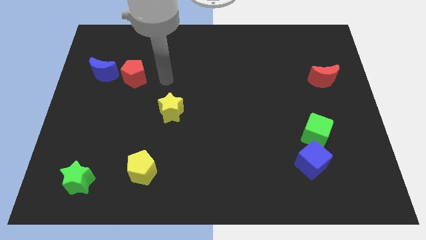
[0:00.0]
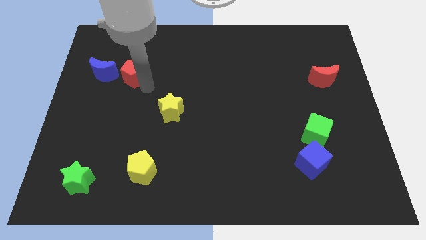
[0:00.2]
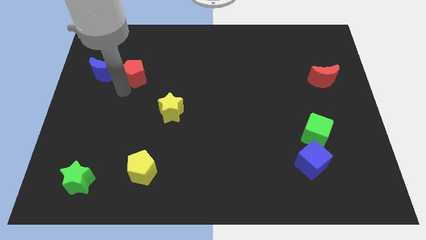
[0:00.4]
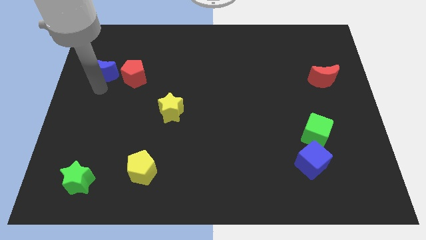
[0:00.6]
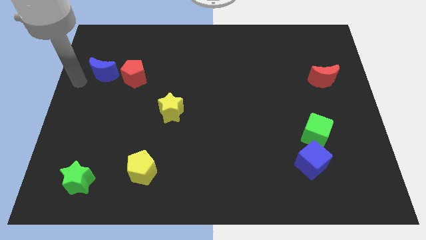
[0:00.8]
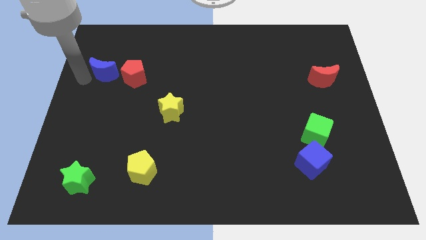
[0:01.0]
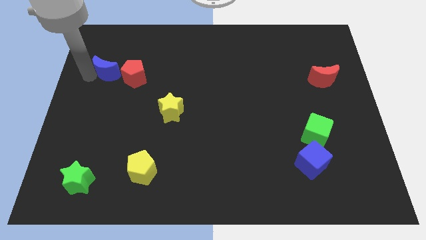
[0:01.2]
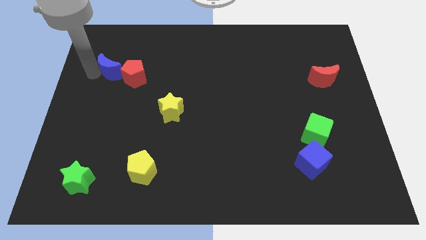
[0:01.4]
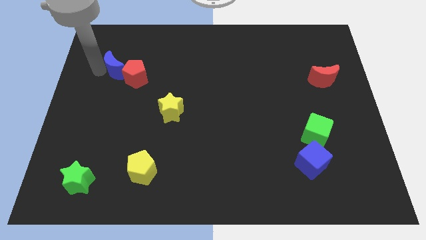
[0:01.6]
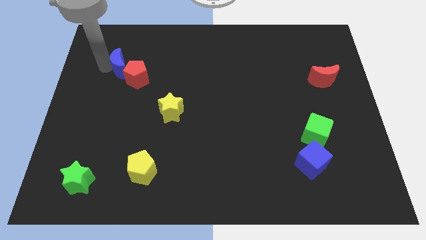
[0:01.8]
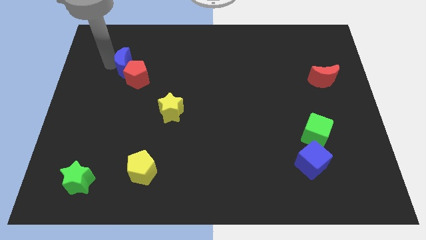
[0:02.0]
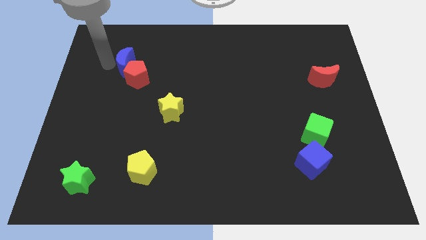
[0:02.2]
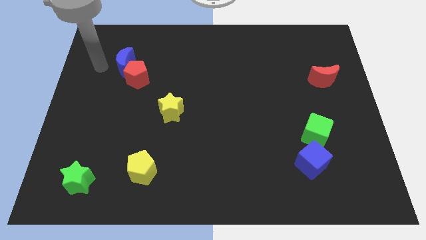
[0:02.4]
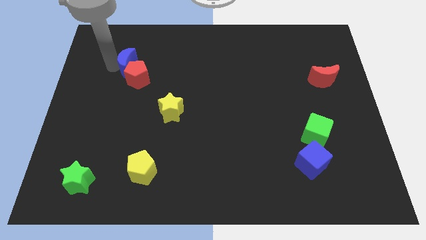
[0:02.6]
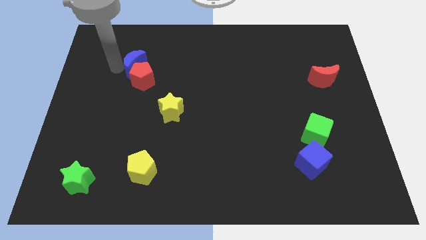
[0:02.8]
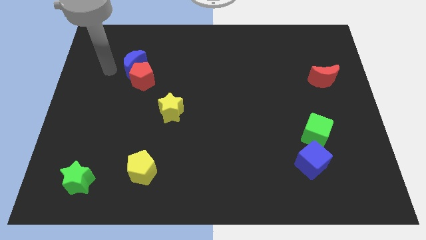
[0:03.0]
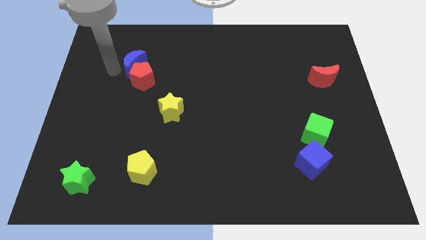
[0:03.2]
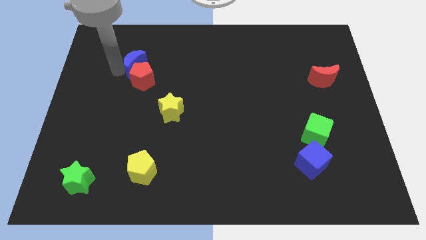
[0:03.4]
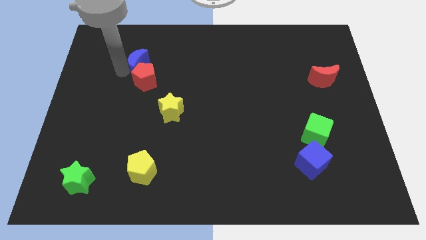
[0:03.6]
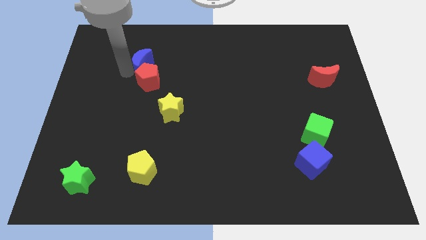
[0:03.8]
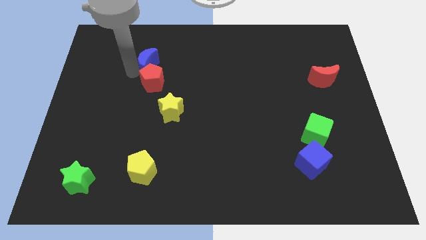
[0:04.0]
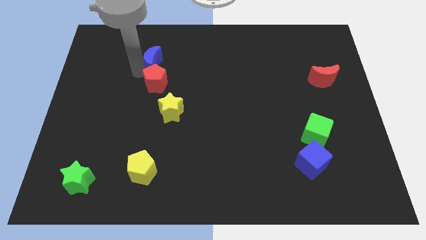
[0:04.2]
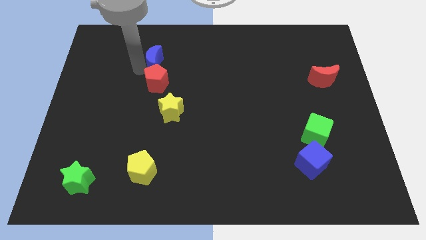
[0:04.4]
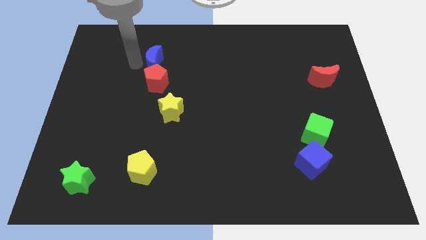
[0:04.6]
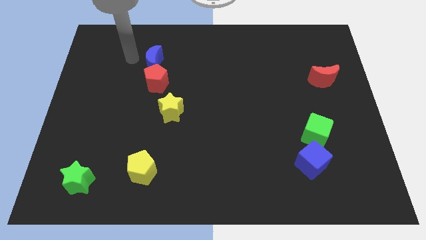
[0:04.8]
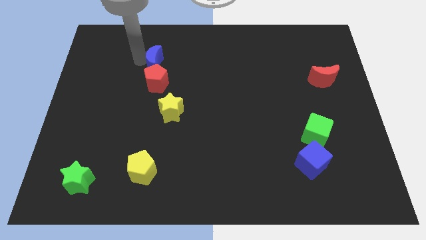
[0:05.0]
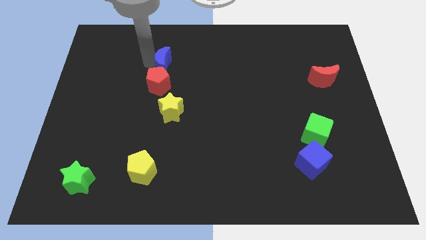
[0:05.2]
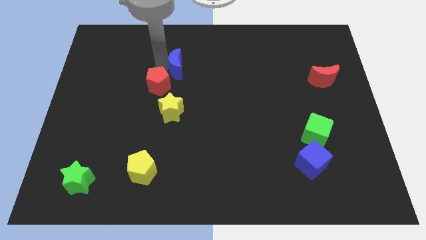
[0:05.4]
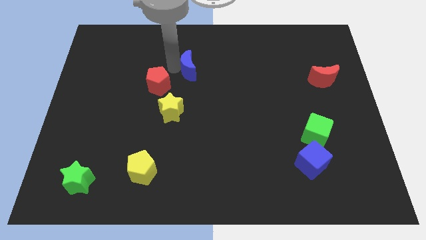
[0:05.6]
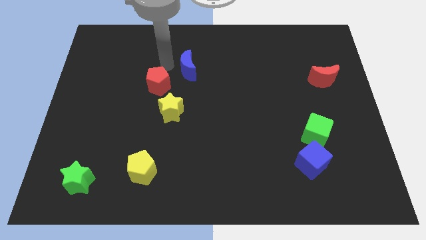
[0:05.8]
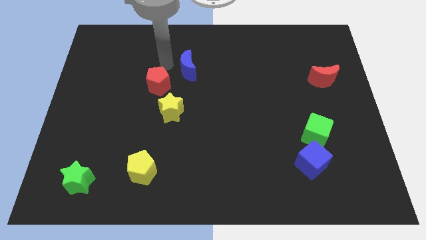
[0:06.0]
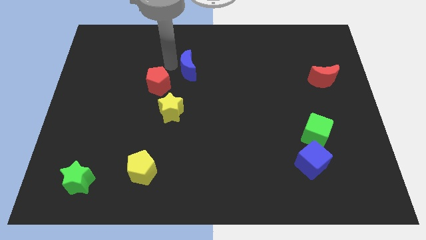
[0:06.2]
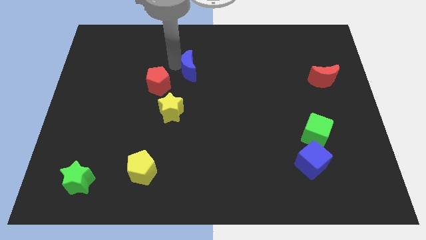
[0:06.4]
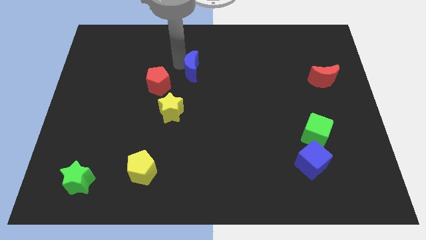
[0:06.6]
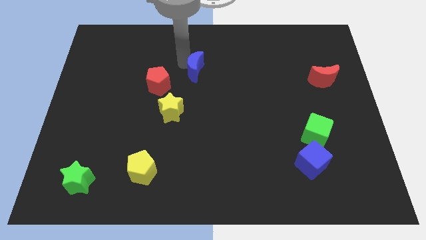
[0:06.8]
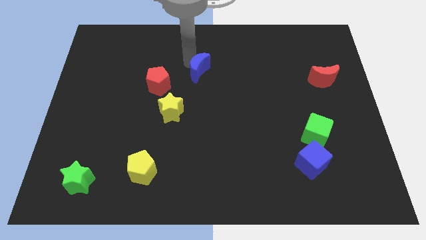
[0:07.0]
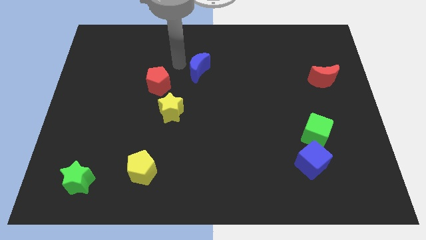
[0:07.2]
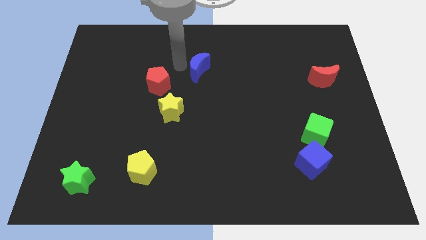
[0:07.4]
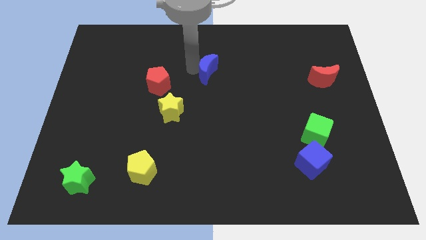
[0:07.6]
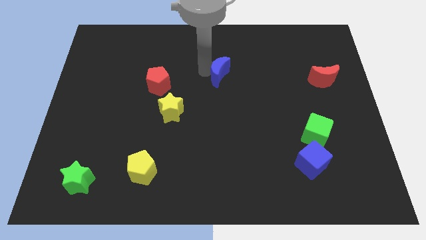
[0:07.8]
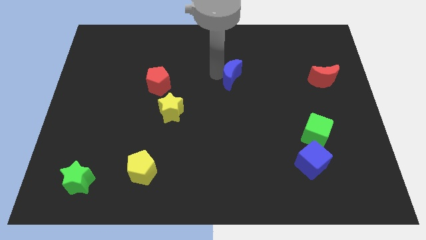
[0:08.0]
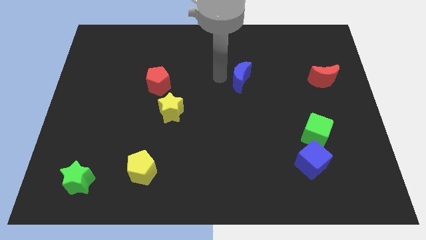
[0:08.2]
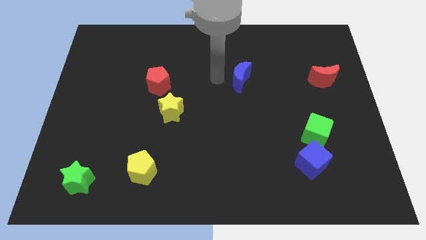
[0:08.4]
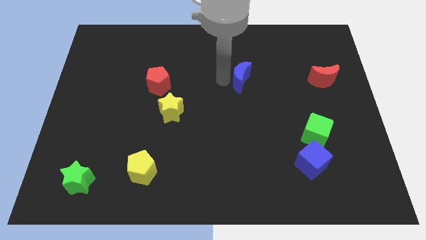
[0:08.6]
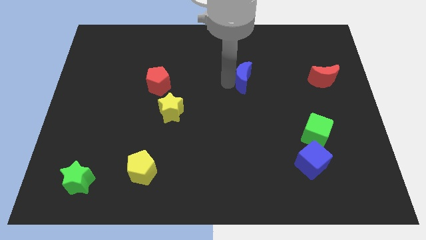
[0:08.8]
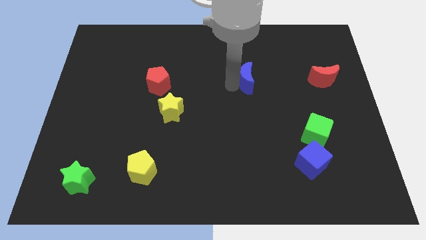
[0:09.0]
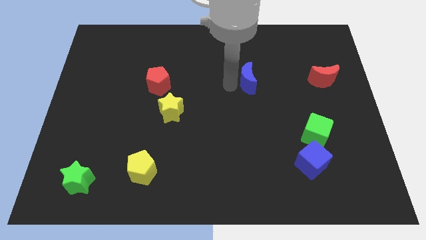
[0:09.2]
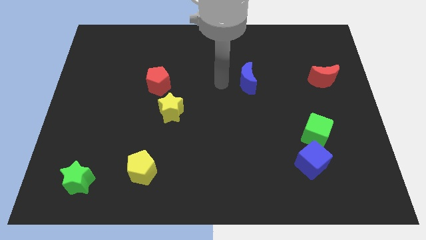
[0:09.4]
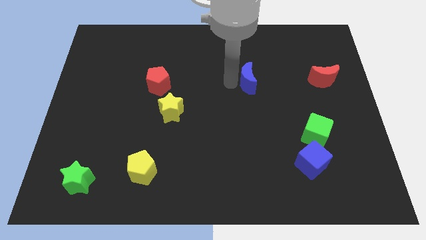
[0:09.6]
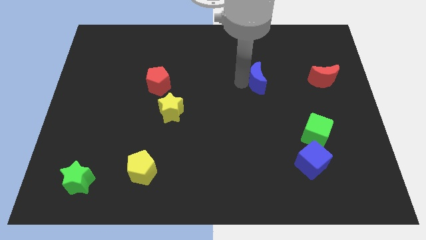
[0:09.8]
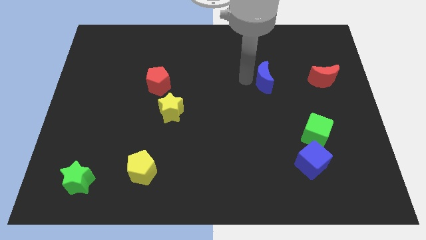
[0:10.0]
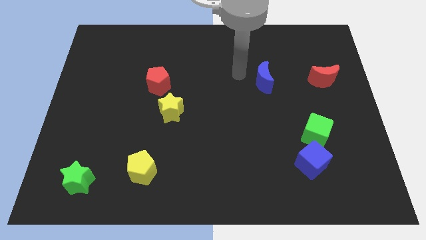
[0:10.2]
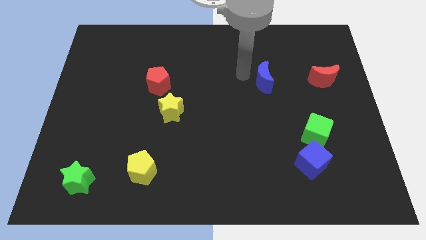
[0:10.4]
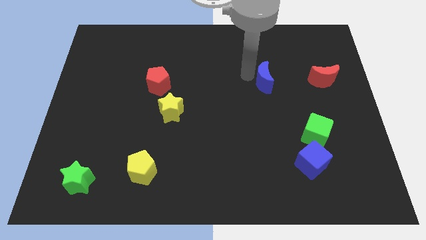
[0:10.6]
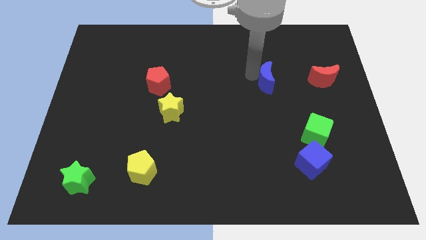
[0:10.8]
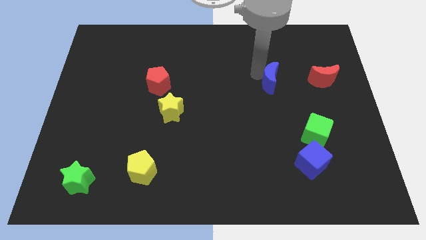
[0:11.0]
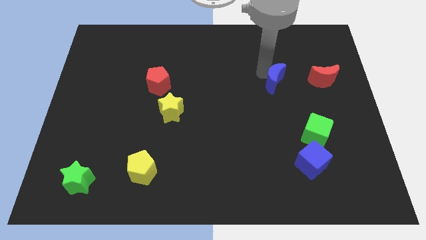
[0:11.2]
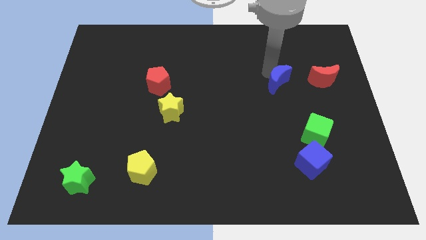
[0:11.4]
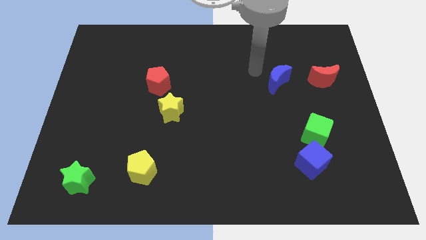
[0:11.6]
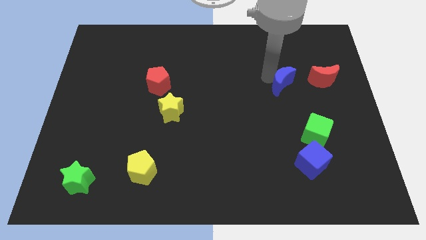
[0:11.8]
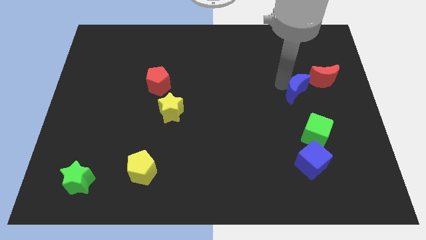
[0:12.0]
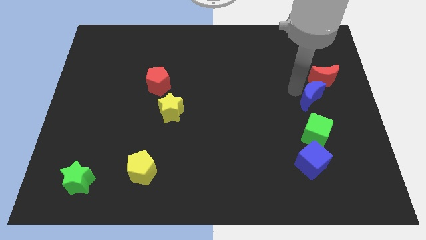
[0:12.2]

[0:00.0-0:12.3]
move the blue moon to the bottom side of the red moon

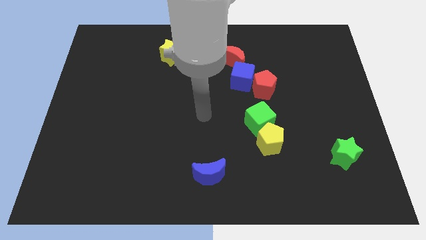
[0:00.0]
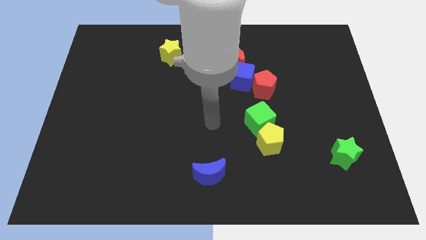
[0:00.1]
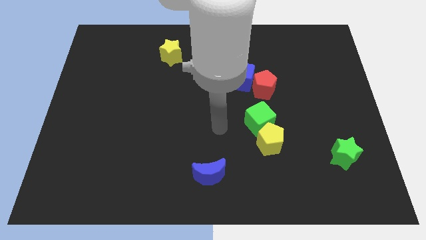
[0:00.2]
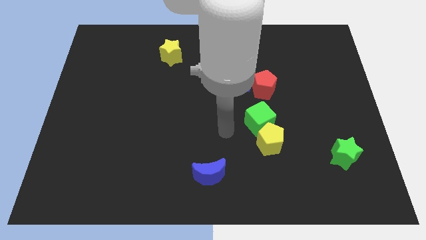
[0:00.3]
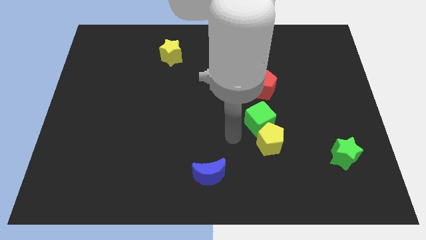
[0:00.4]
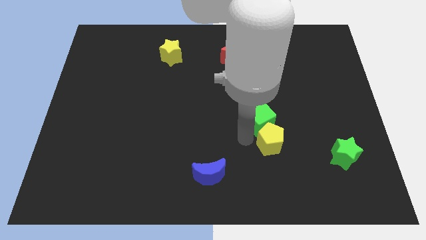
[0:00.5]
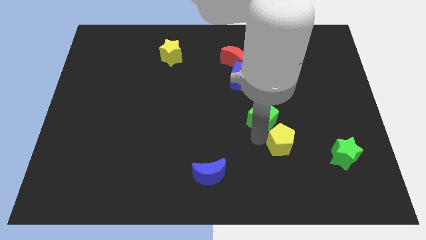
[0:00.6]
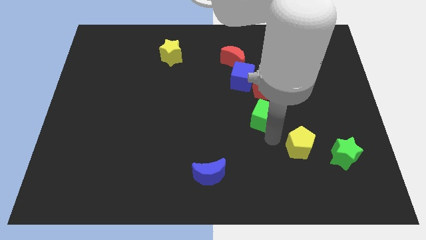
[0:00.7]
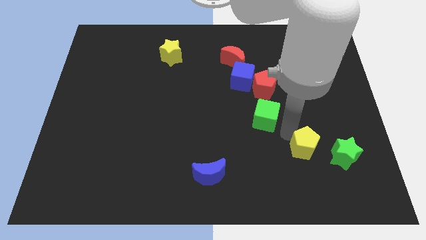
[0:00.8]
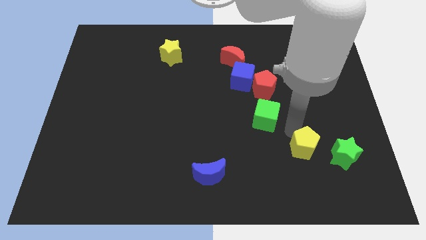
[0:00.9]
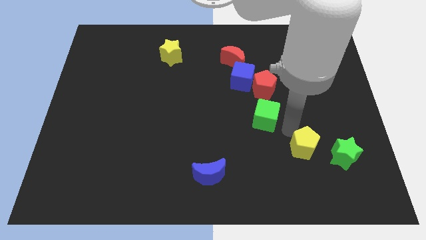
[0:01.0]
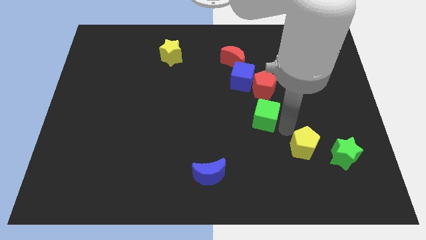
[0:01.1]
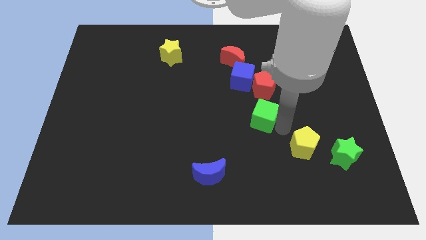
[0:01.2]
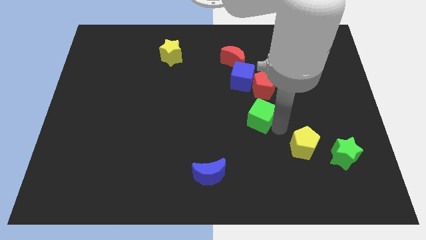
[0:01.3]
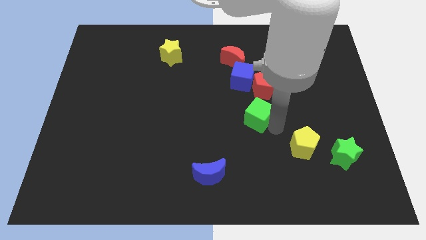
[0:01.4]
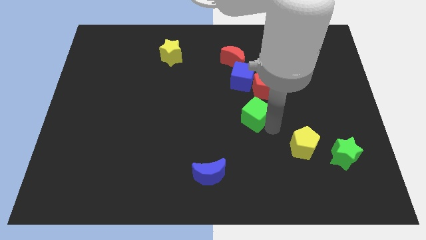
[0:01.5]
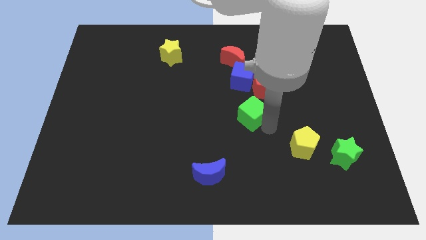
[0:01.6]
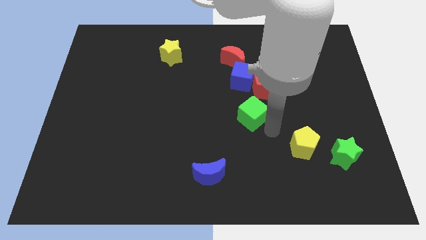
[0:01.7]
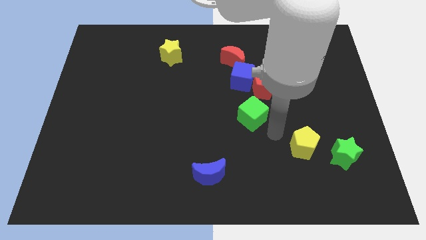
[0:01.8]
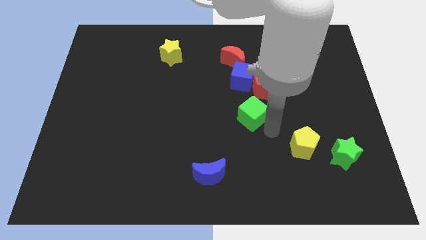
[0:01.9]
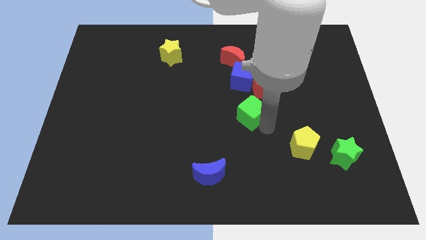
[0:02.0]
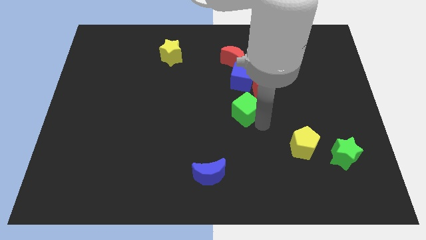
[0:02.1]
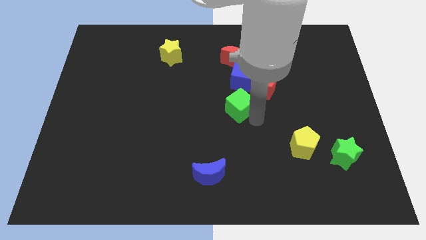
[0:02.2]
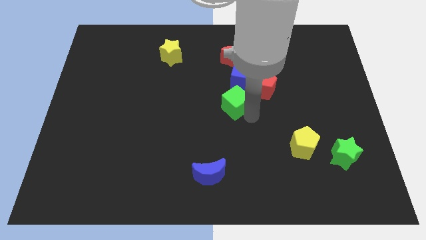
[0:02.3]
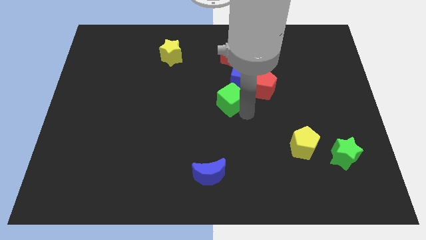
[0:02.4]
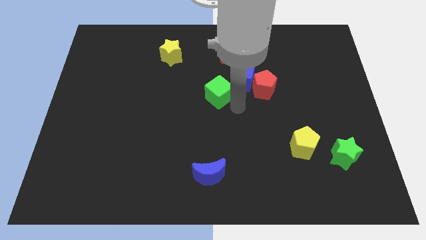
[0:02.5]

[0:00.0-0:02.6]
slide the green cube to the left of the blue cube
